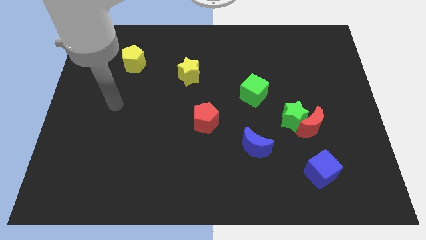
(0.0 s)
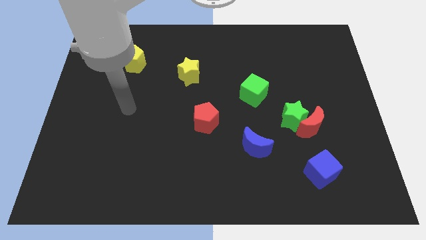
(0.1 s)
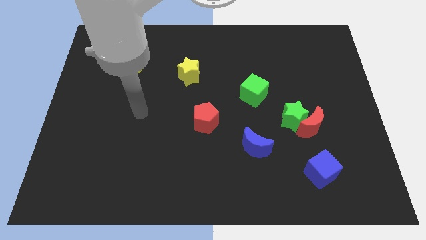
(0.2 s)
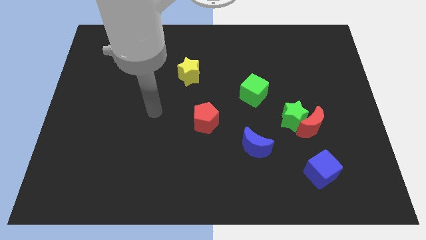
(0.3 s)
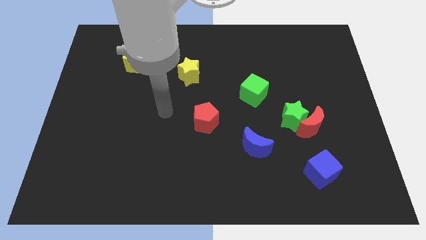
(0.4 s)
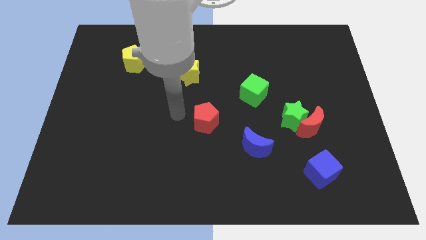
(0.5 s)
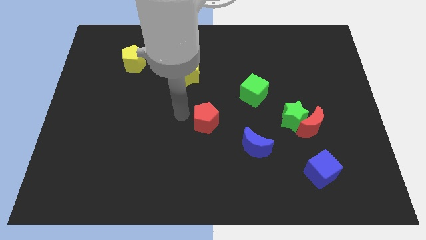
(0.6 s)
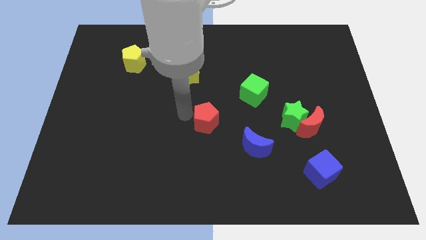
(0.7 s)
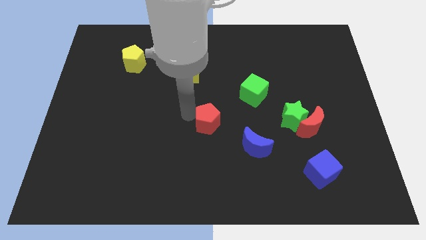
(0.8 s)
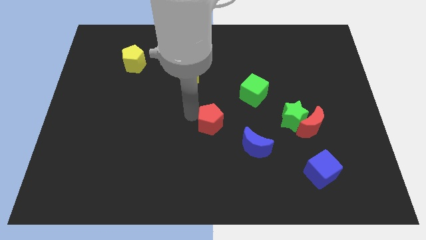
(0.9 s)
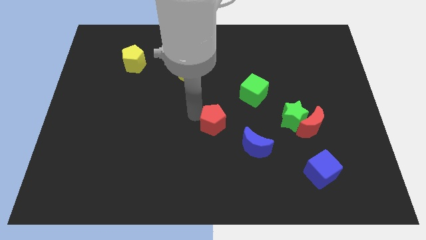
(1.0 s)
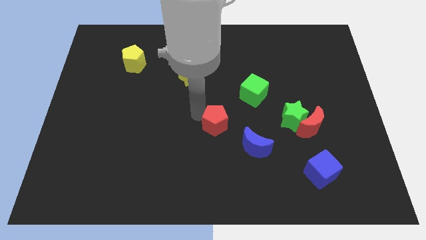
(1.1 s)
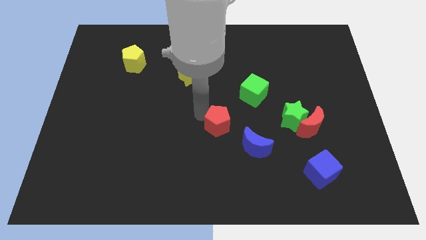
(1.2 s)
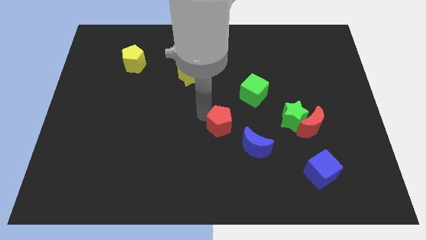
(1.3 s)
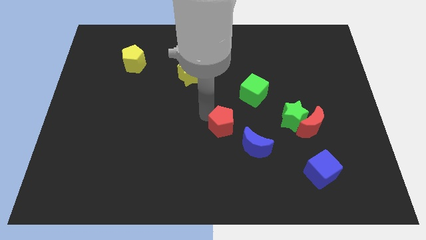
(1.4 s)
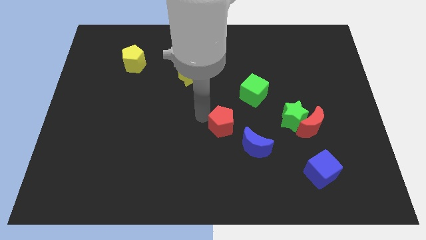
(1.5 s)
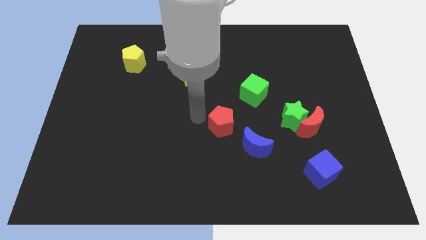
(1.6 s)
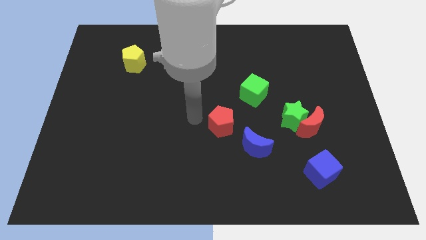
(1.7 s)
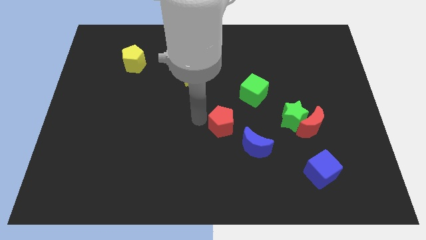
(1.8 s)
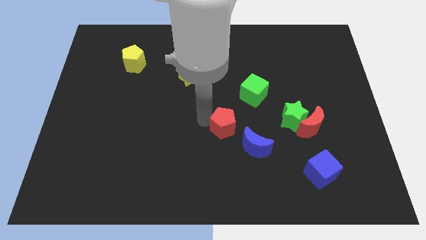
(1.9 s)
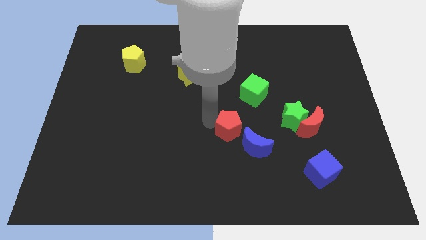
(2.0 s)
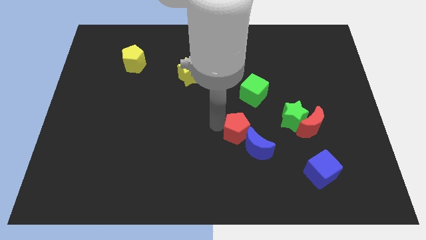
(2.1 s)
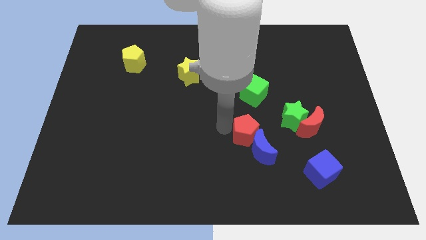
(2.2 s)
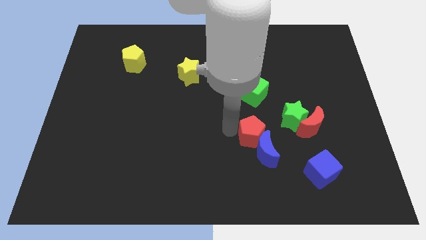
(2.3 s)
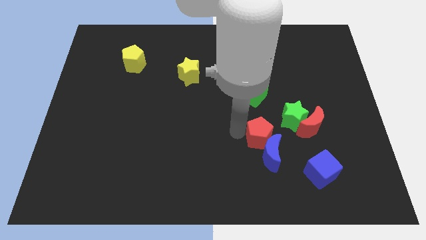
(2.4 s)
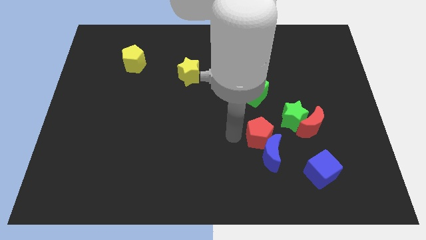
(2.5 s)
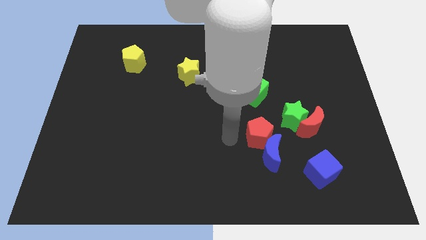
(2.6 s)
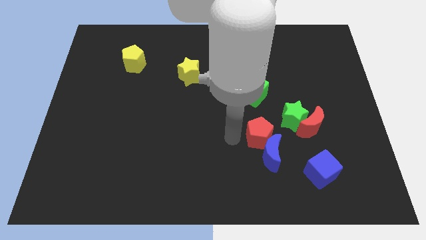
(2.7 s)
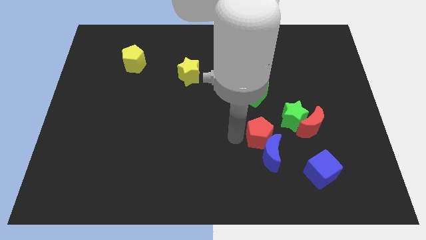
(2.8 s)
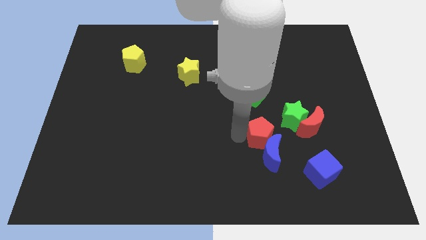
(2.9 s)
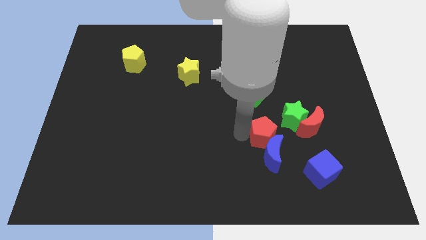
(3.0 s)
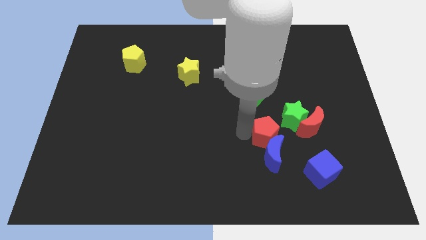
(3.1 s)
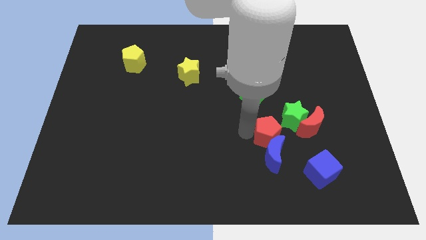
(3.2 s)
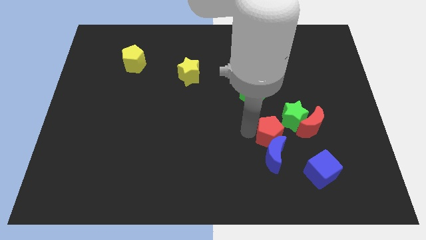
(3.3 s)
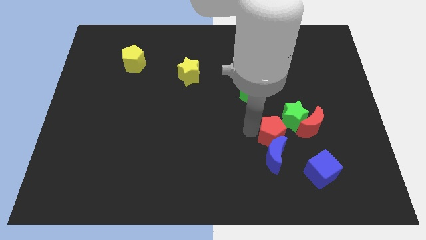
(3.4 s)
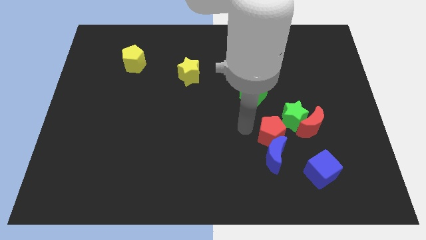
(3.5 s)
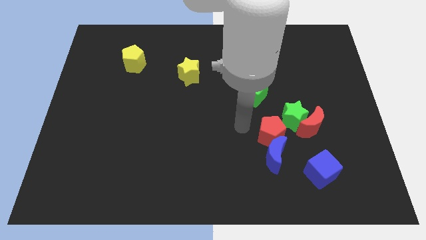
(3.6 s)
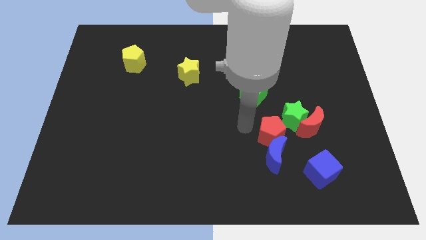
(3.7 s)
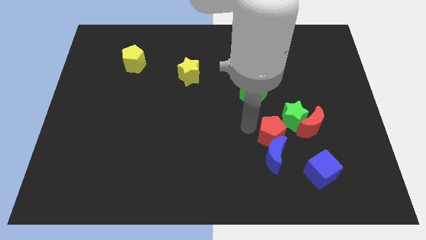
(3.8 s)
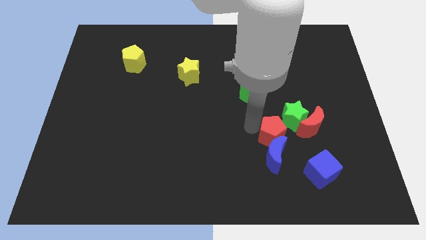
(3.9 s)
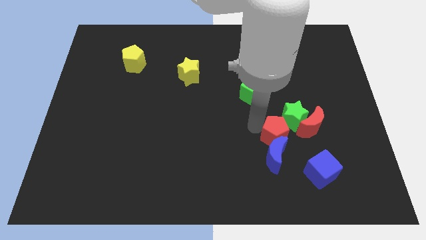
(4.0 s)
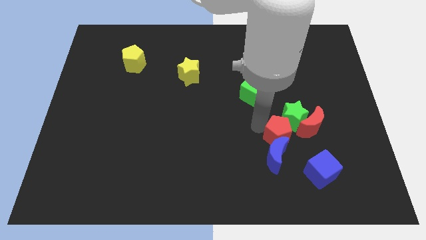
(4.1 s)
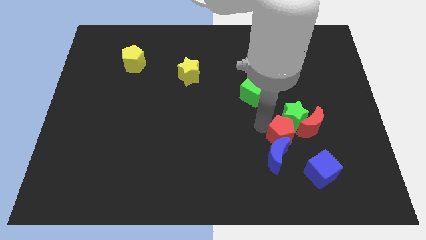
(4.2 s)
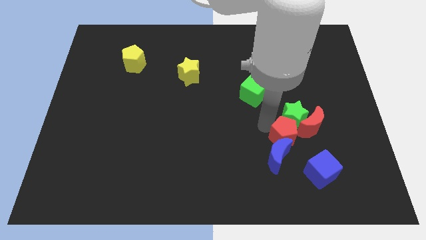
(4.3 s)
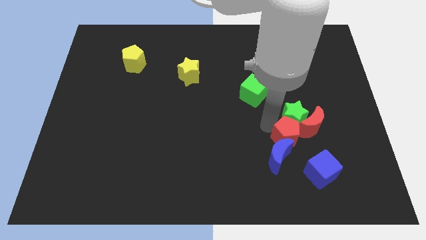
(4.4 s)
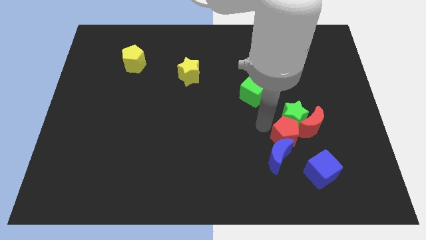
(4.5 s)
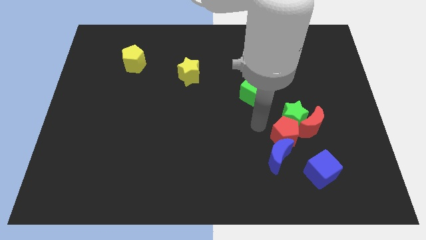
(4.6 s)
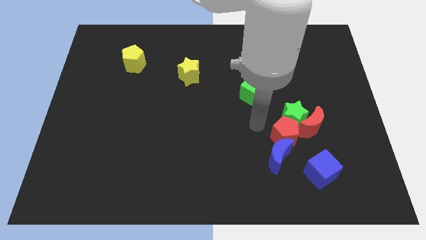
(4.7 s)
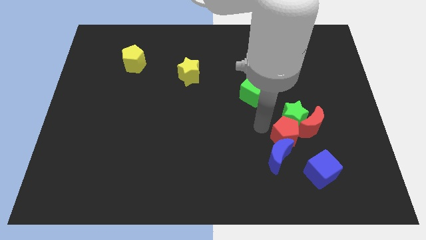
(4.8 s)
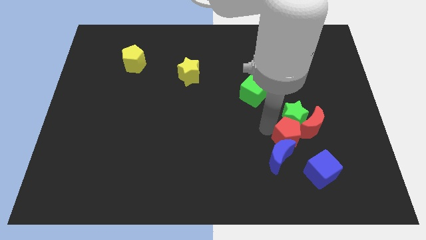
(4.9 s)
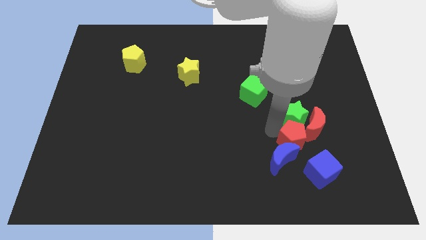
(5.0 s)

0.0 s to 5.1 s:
slide the red pentagon towards the red moon

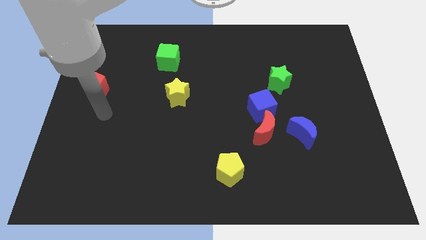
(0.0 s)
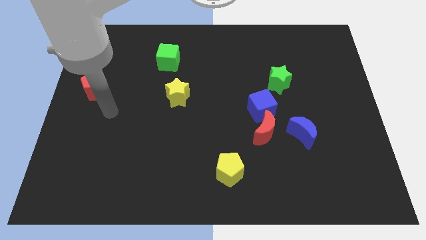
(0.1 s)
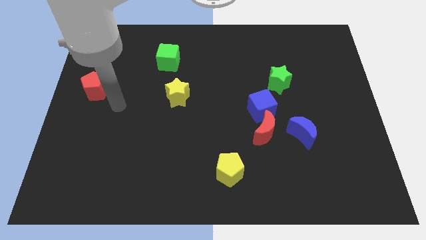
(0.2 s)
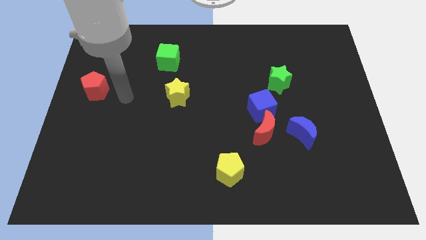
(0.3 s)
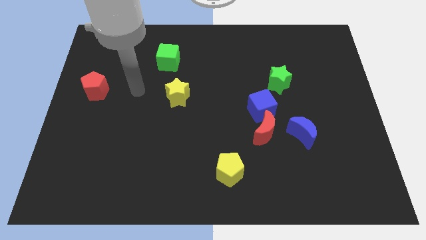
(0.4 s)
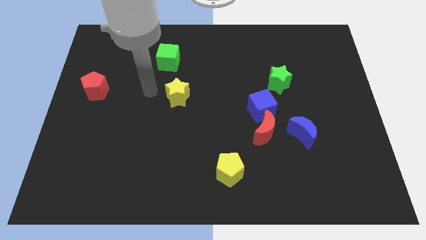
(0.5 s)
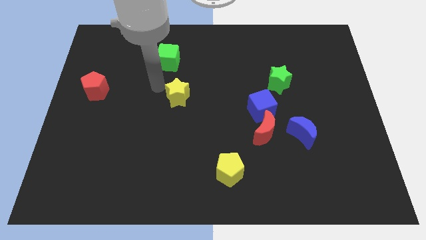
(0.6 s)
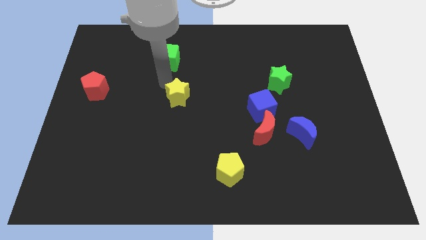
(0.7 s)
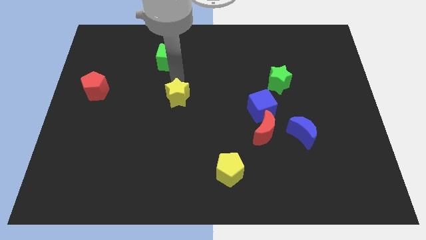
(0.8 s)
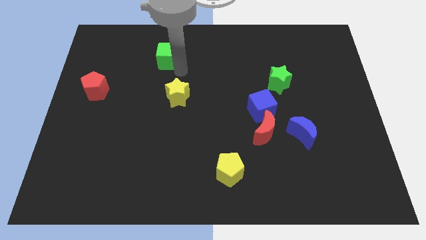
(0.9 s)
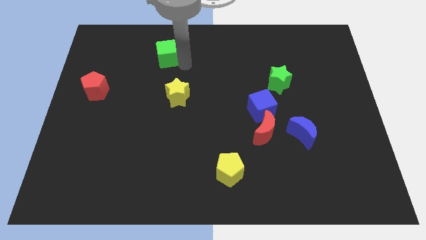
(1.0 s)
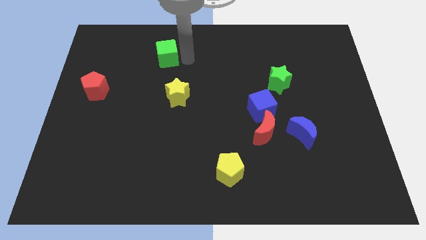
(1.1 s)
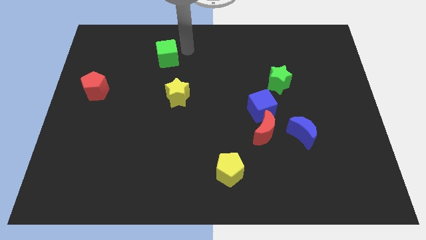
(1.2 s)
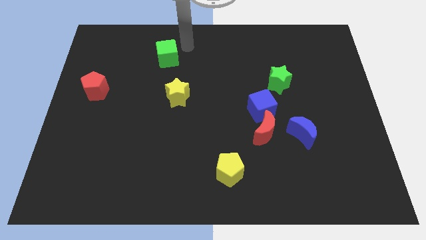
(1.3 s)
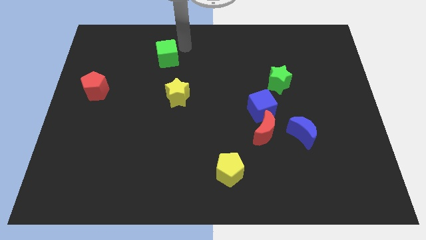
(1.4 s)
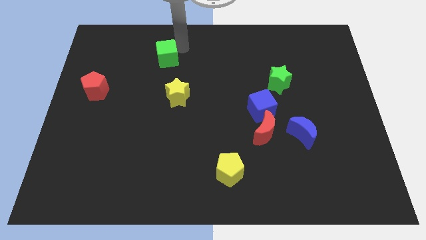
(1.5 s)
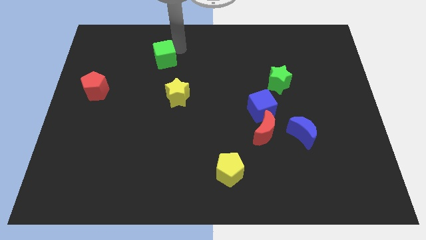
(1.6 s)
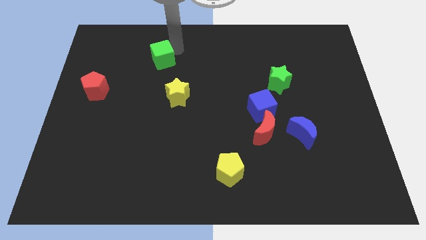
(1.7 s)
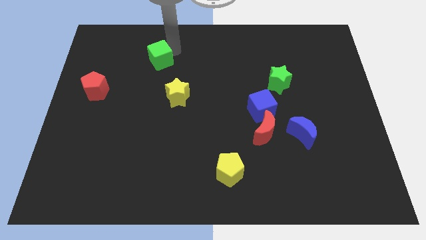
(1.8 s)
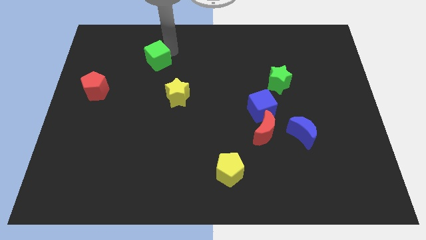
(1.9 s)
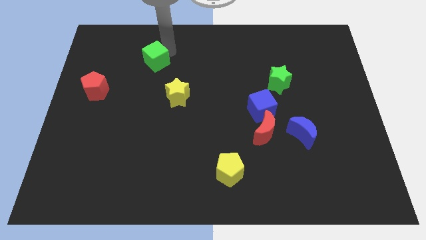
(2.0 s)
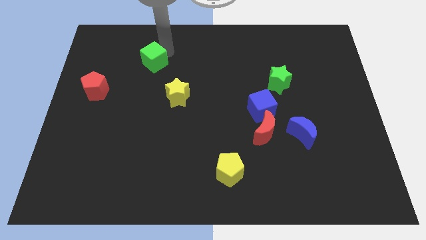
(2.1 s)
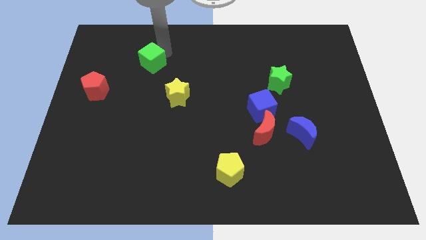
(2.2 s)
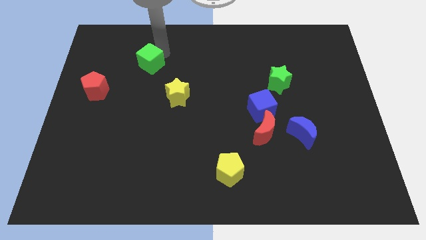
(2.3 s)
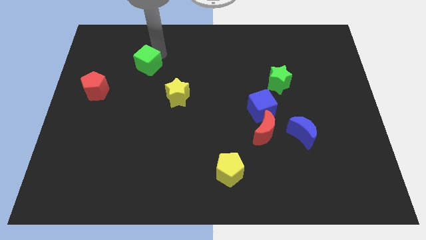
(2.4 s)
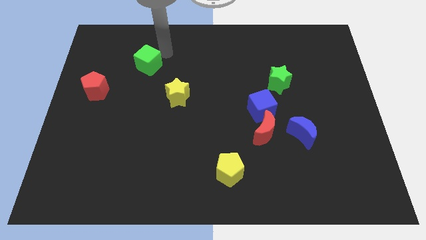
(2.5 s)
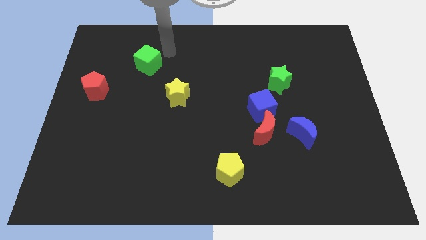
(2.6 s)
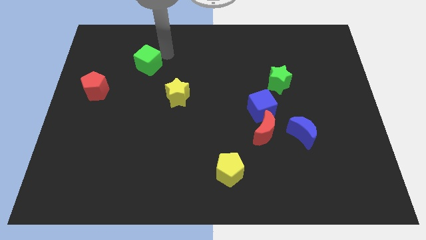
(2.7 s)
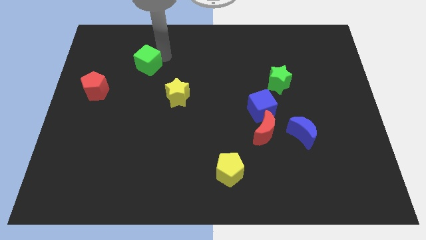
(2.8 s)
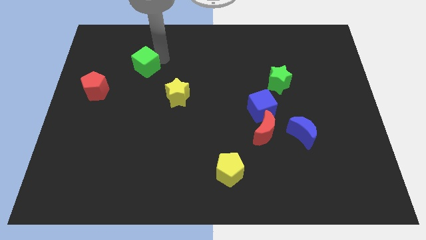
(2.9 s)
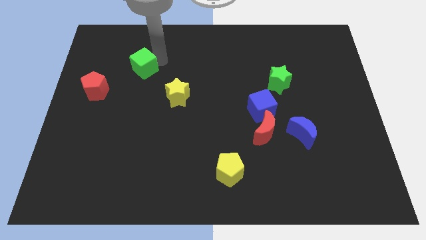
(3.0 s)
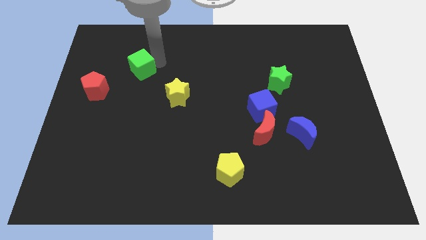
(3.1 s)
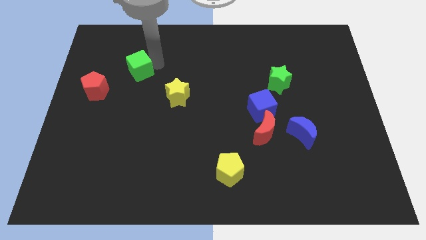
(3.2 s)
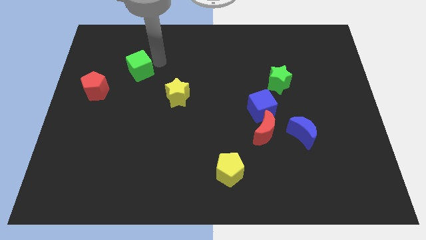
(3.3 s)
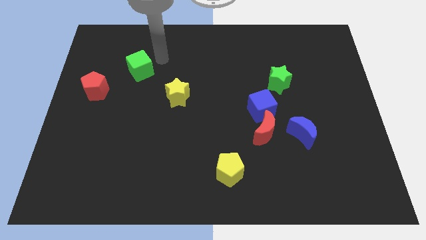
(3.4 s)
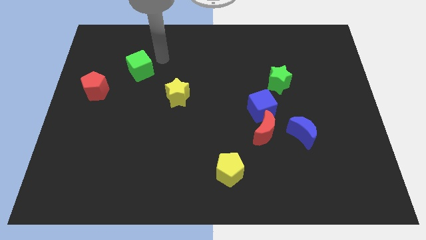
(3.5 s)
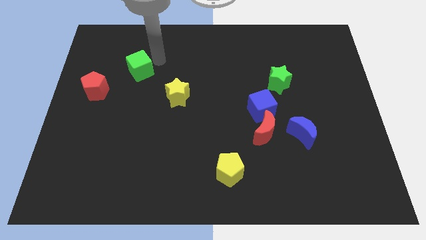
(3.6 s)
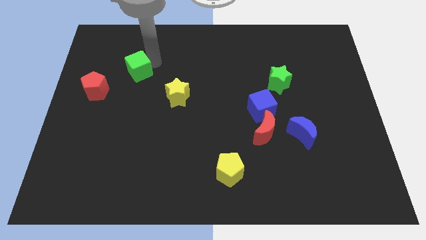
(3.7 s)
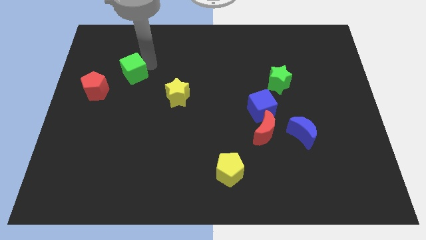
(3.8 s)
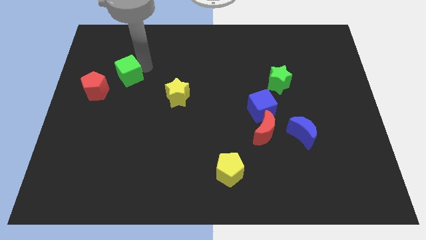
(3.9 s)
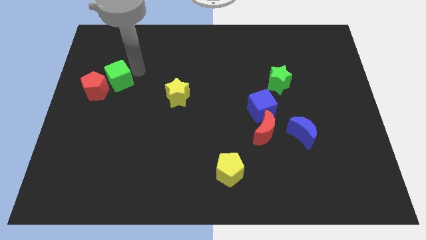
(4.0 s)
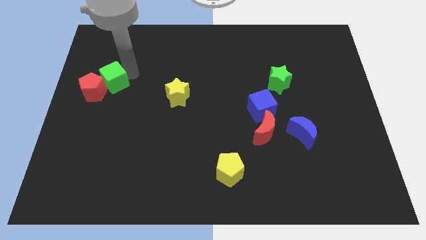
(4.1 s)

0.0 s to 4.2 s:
slide the green cube next to the red pentagon
